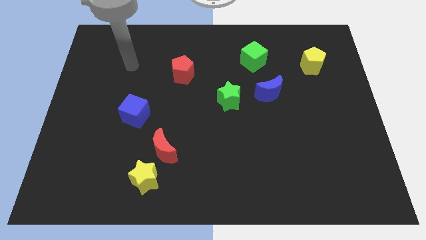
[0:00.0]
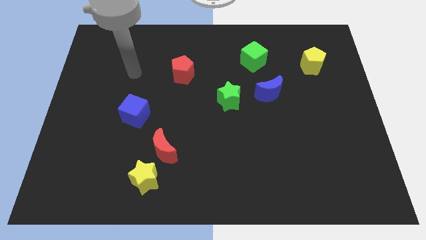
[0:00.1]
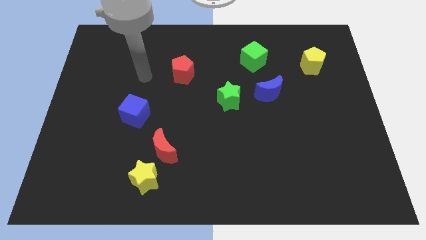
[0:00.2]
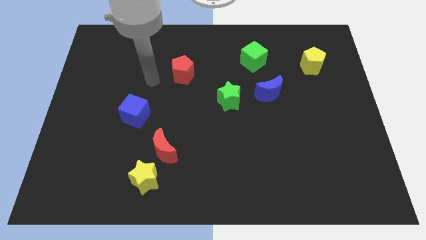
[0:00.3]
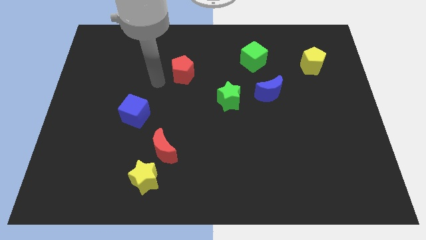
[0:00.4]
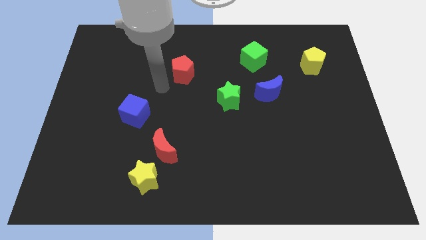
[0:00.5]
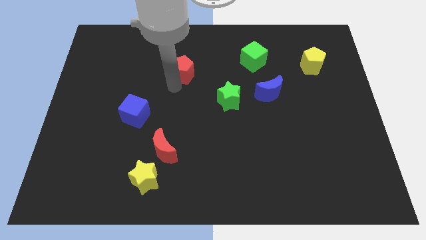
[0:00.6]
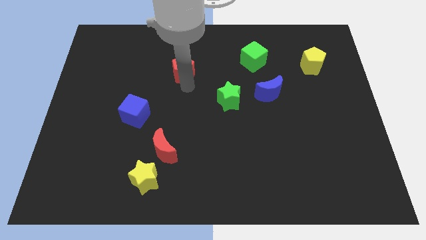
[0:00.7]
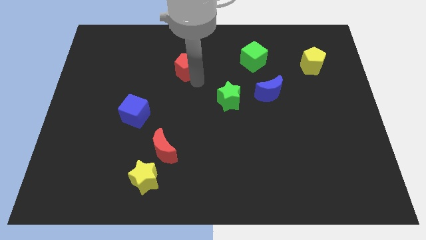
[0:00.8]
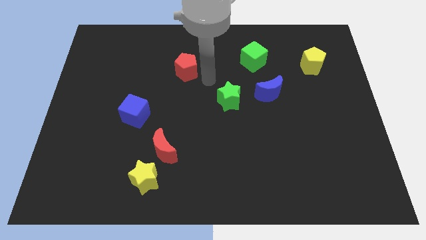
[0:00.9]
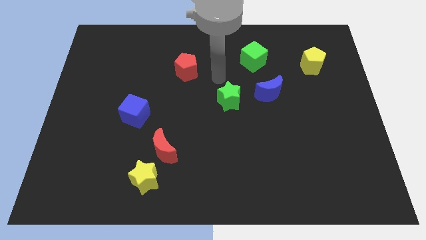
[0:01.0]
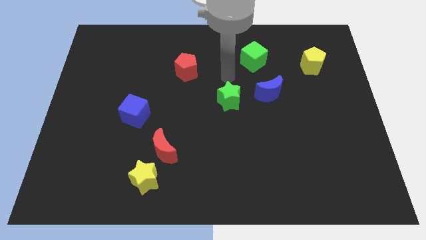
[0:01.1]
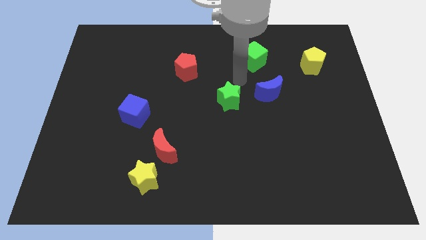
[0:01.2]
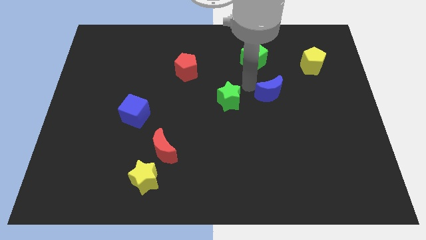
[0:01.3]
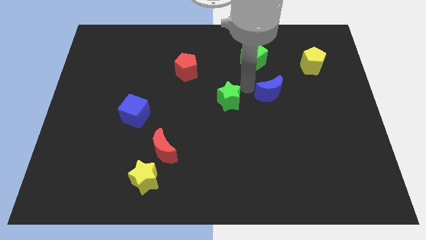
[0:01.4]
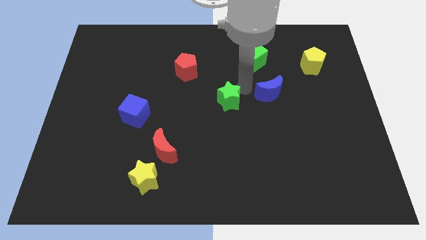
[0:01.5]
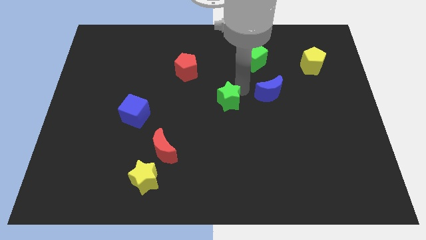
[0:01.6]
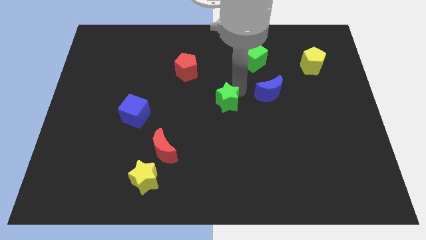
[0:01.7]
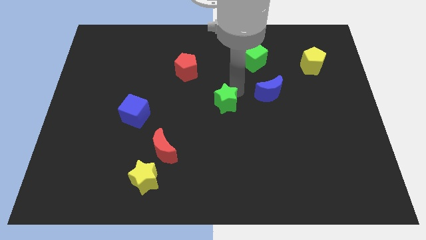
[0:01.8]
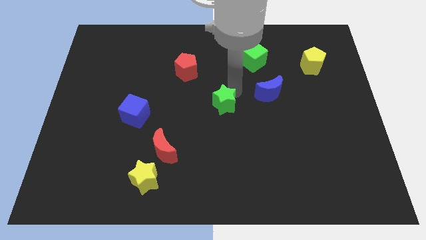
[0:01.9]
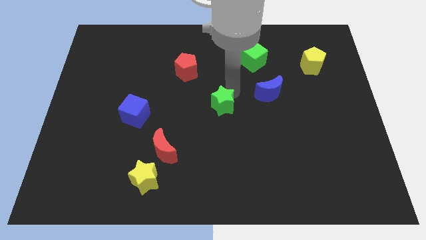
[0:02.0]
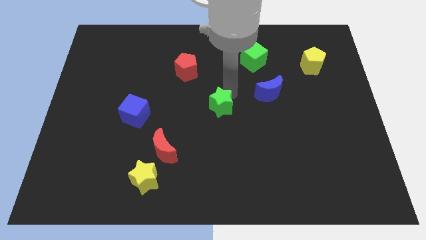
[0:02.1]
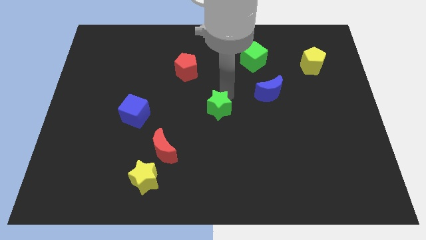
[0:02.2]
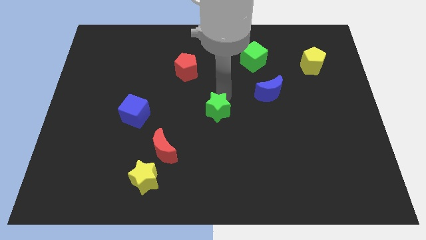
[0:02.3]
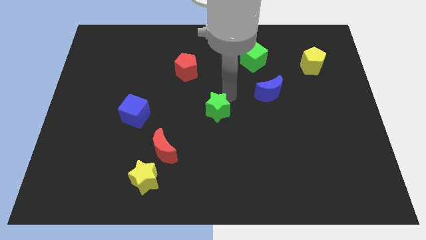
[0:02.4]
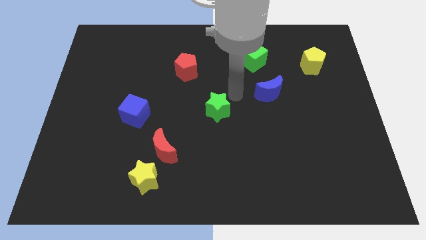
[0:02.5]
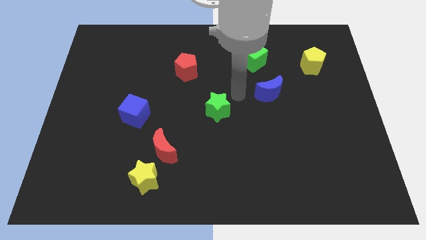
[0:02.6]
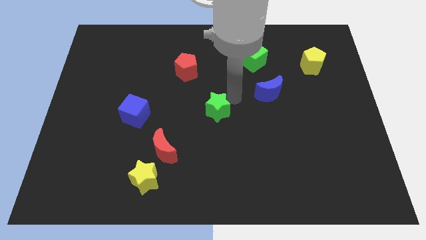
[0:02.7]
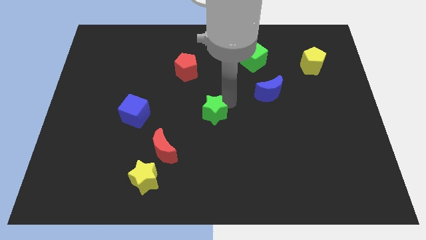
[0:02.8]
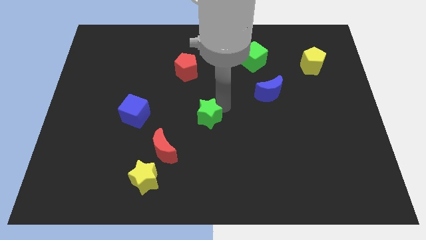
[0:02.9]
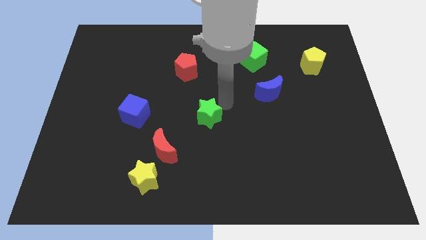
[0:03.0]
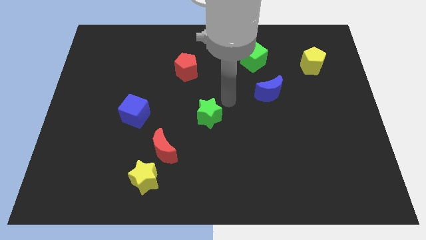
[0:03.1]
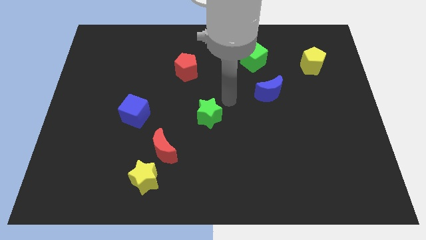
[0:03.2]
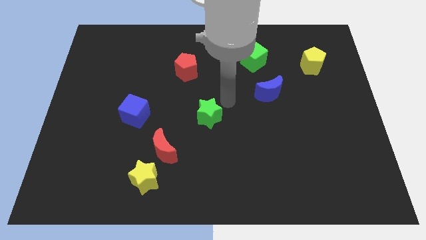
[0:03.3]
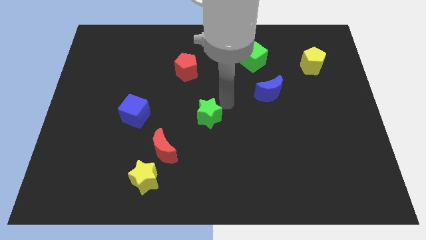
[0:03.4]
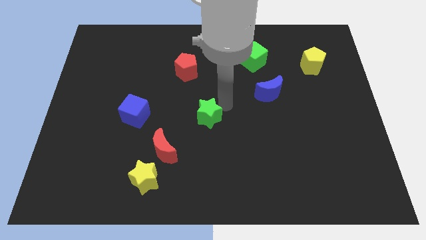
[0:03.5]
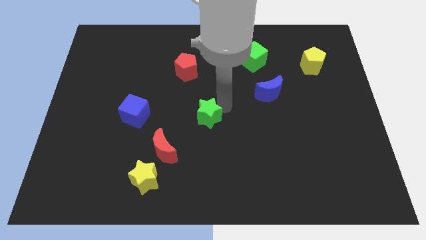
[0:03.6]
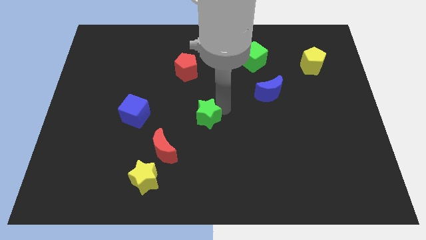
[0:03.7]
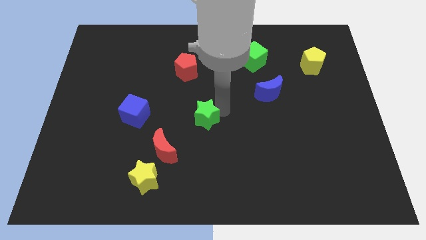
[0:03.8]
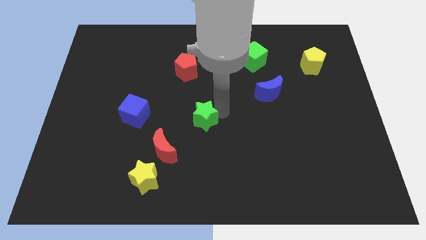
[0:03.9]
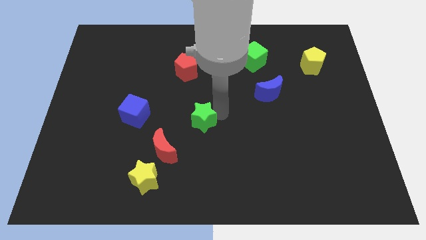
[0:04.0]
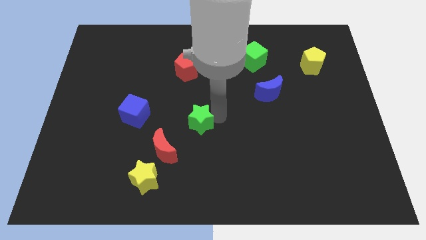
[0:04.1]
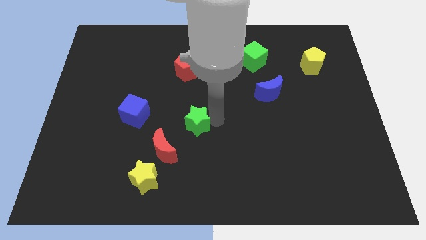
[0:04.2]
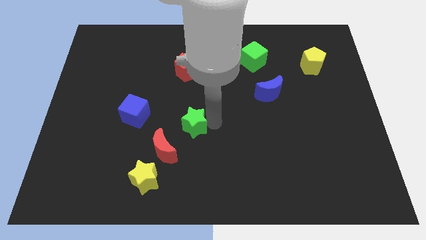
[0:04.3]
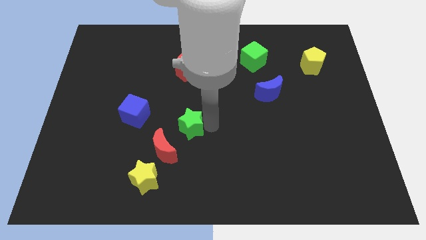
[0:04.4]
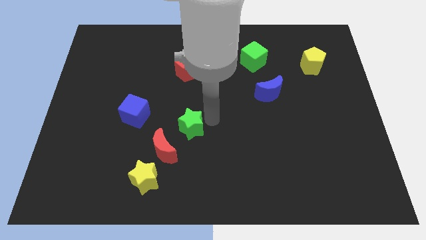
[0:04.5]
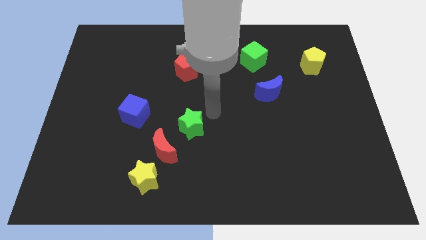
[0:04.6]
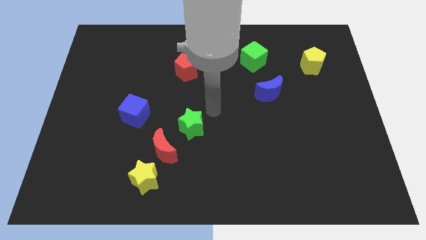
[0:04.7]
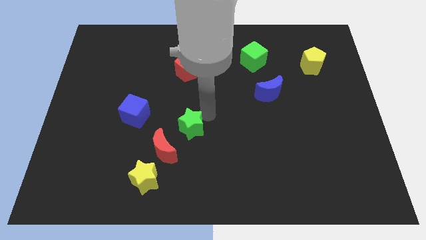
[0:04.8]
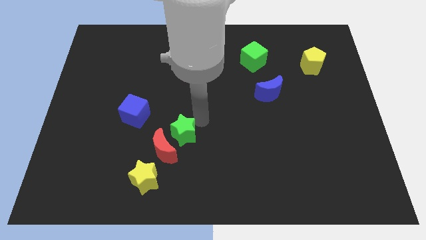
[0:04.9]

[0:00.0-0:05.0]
push the green star next to the red moon

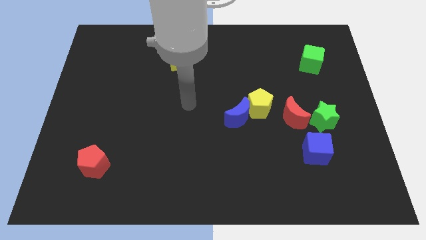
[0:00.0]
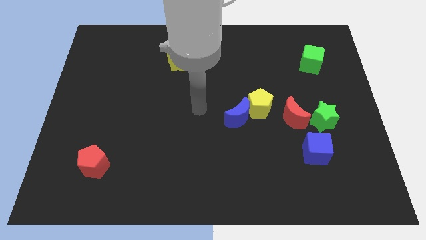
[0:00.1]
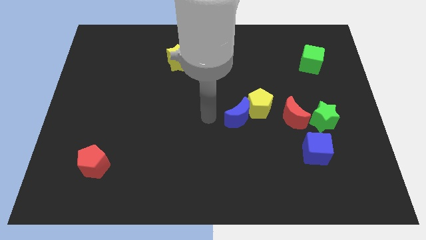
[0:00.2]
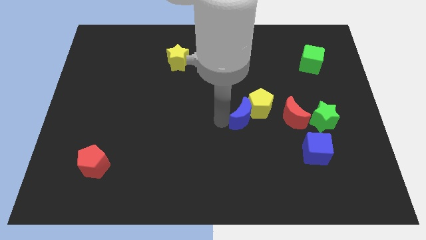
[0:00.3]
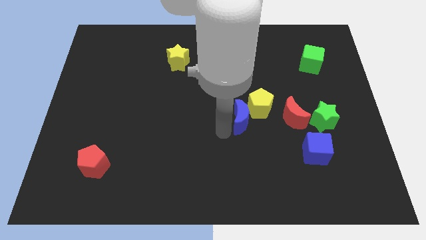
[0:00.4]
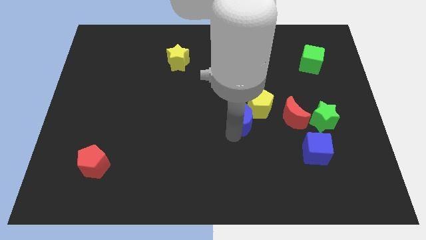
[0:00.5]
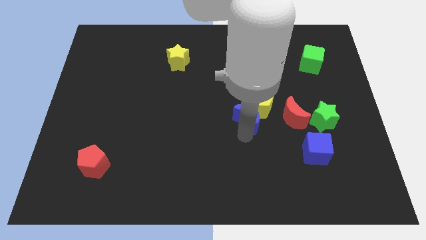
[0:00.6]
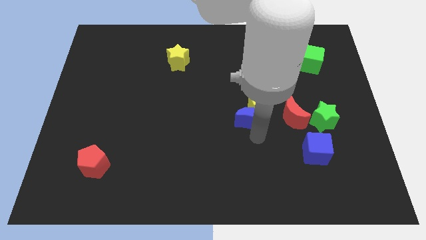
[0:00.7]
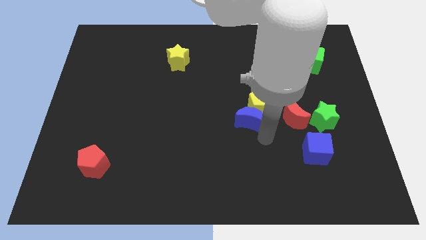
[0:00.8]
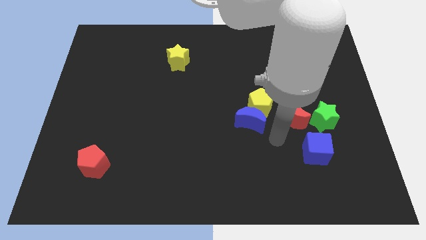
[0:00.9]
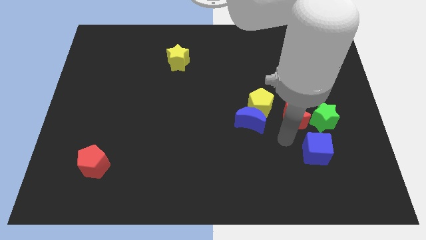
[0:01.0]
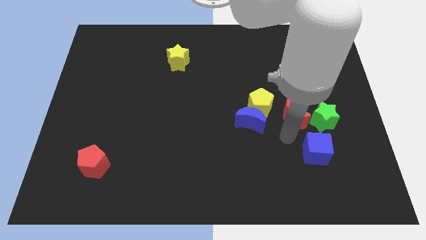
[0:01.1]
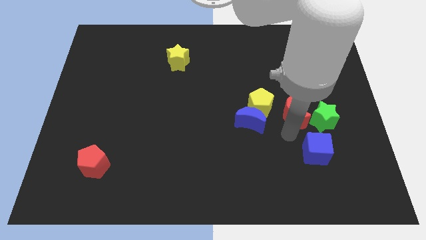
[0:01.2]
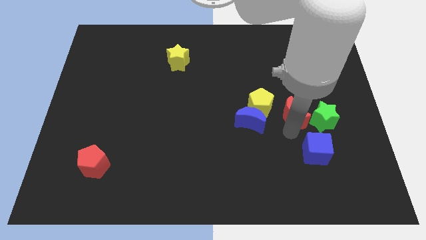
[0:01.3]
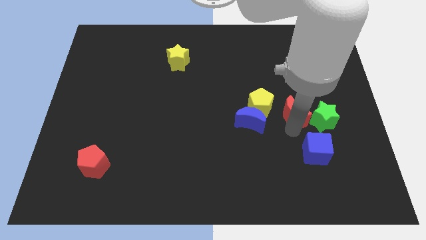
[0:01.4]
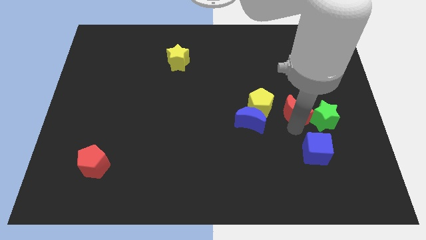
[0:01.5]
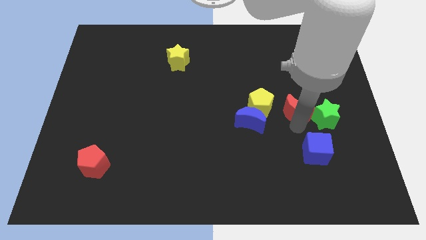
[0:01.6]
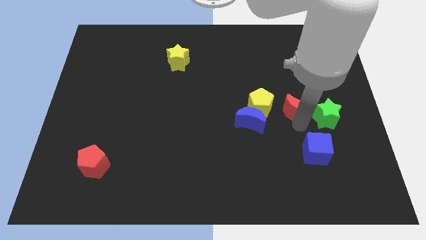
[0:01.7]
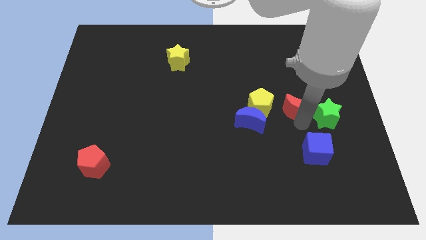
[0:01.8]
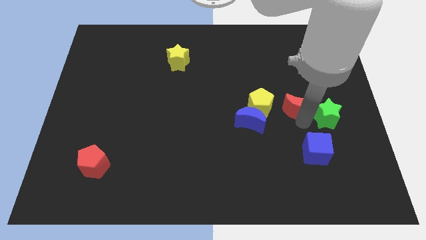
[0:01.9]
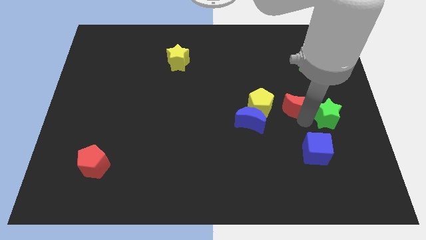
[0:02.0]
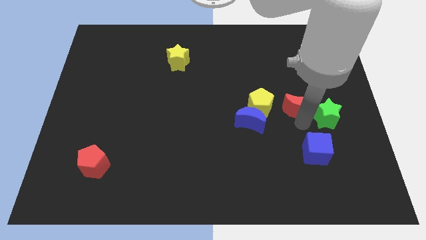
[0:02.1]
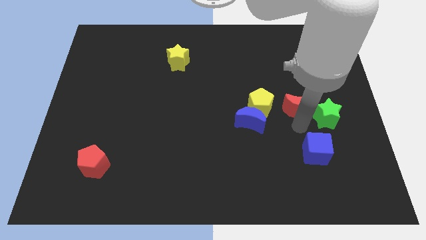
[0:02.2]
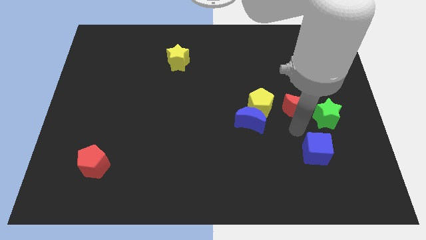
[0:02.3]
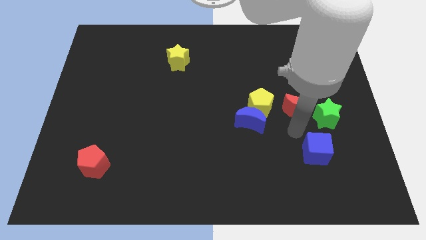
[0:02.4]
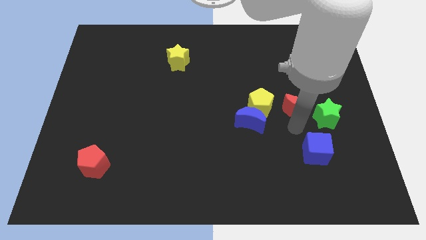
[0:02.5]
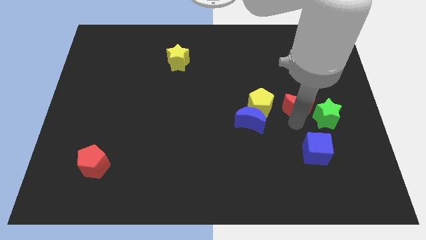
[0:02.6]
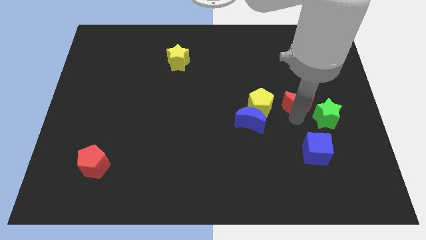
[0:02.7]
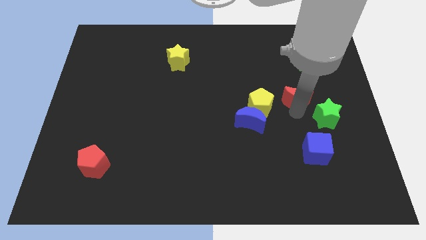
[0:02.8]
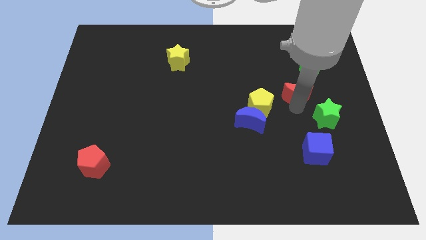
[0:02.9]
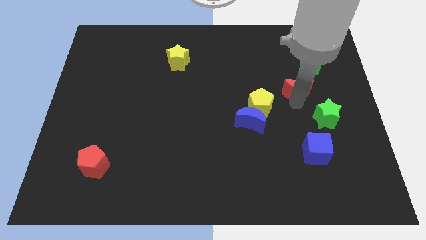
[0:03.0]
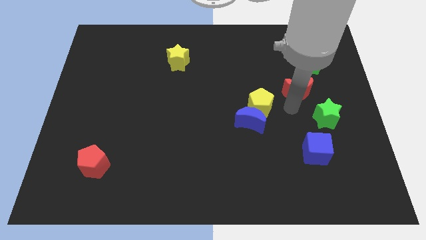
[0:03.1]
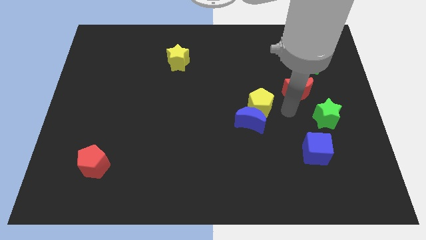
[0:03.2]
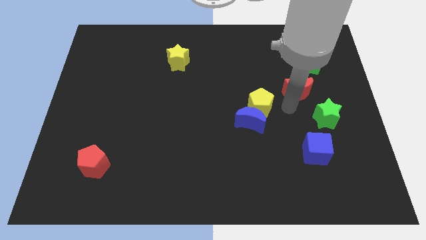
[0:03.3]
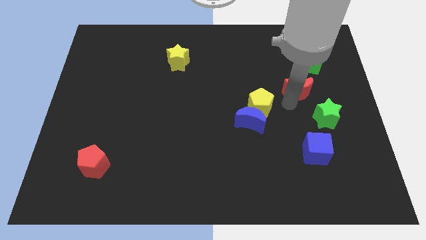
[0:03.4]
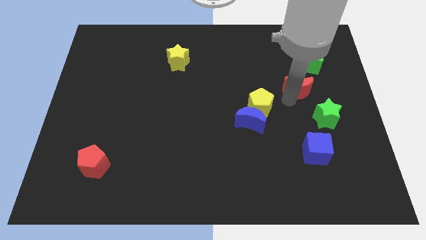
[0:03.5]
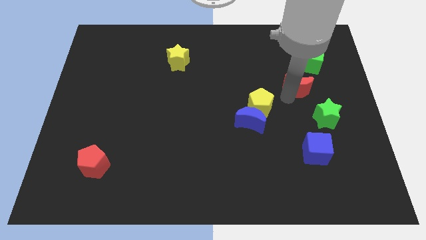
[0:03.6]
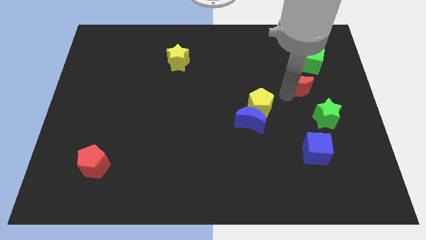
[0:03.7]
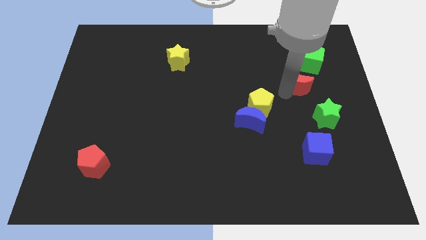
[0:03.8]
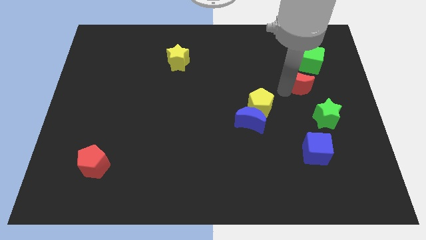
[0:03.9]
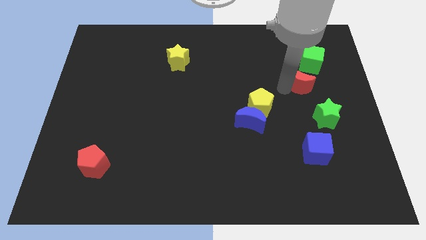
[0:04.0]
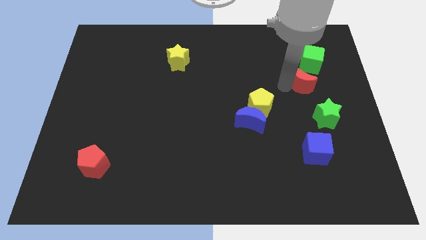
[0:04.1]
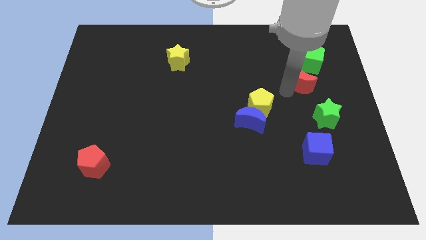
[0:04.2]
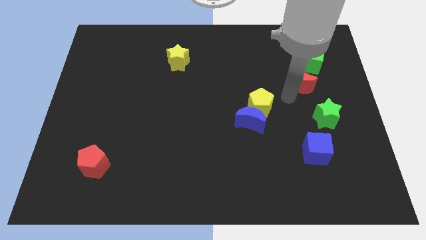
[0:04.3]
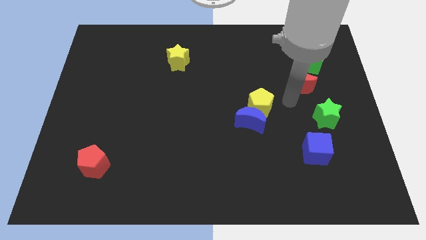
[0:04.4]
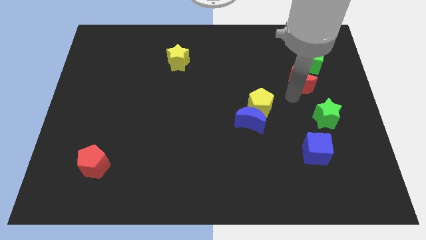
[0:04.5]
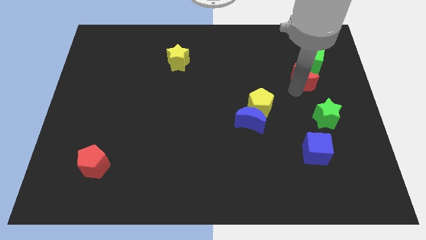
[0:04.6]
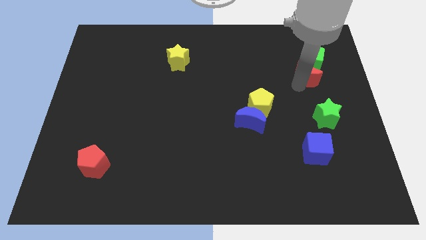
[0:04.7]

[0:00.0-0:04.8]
slide the red moon towards the green cube
